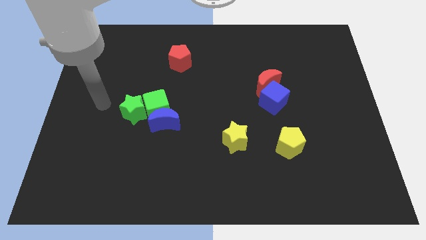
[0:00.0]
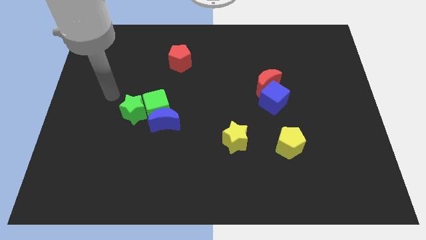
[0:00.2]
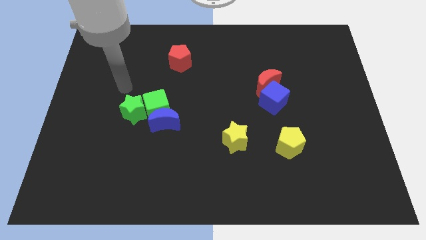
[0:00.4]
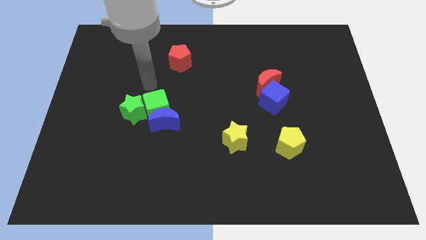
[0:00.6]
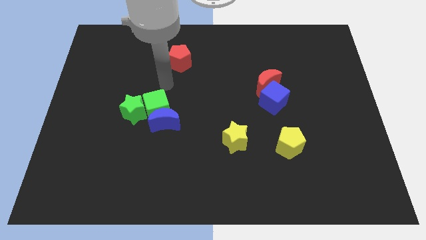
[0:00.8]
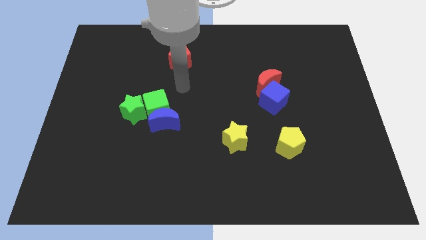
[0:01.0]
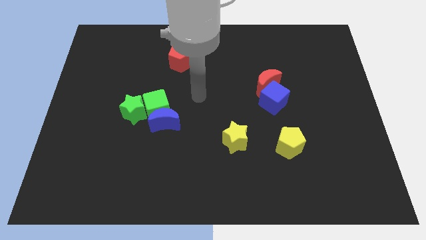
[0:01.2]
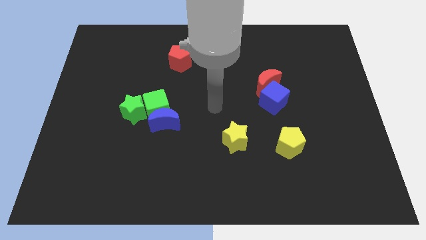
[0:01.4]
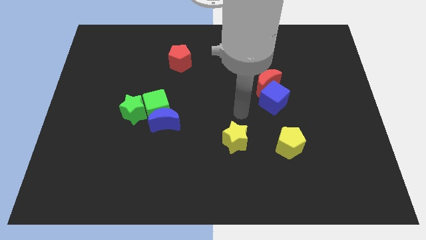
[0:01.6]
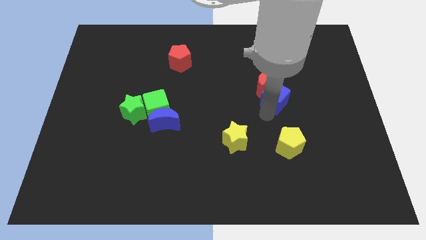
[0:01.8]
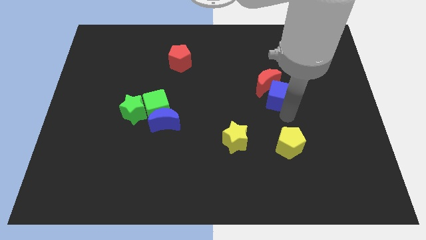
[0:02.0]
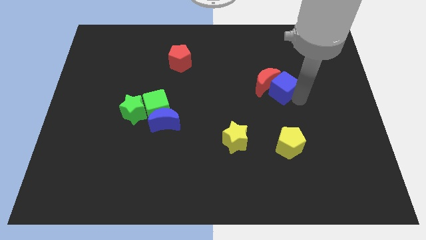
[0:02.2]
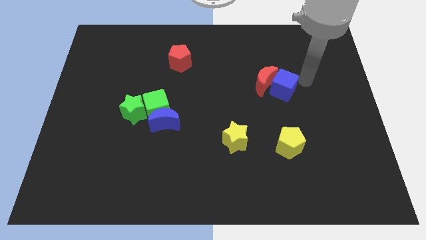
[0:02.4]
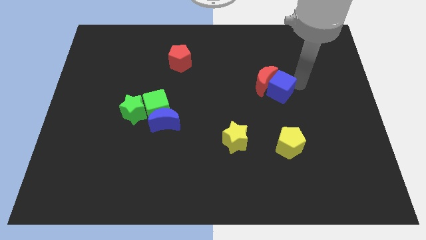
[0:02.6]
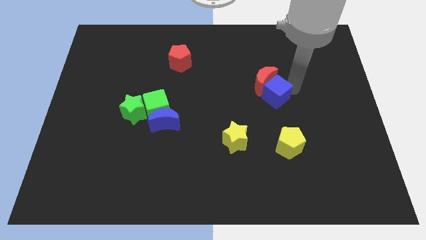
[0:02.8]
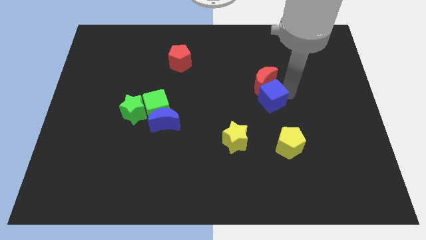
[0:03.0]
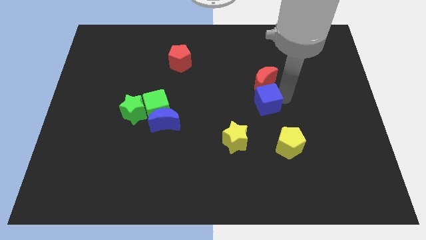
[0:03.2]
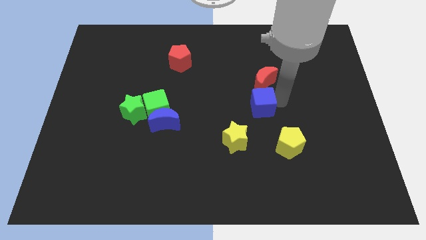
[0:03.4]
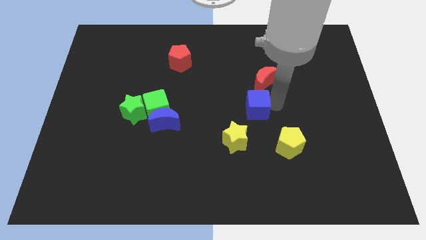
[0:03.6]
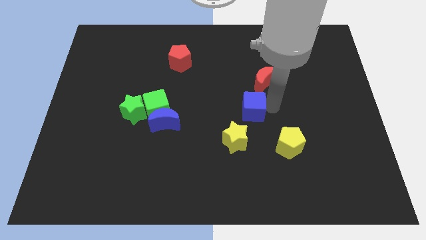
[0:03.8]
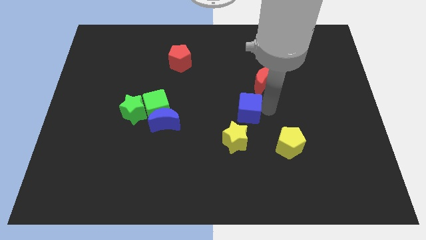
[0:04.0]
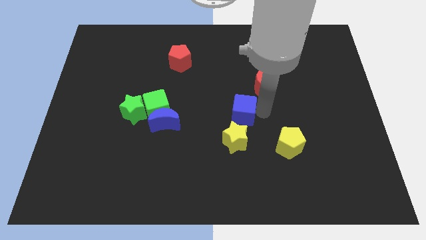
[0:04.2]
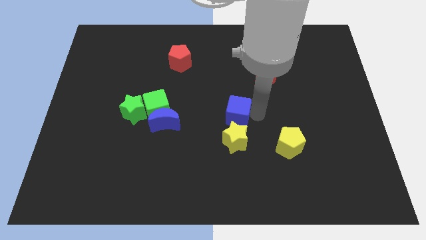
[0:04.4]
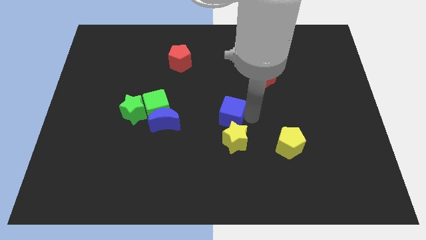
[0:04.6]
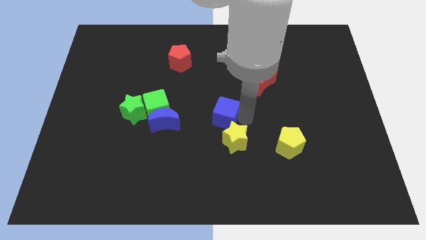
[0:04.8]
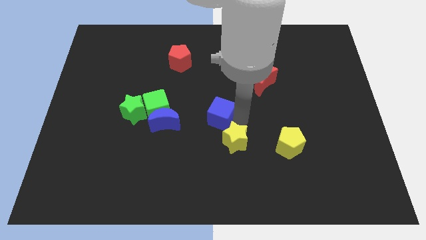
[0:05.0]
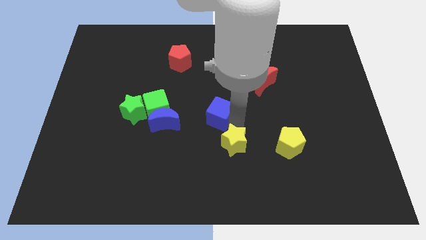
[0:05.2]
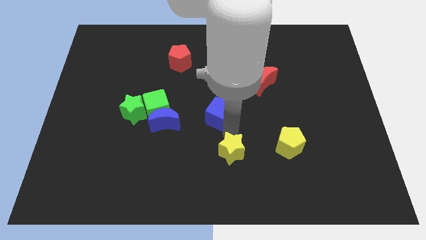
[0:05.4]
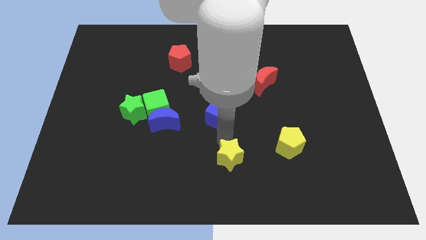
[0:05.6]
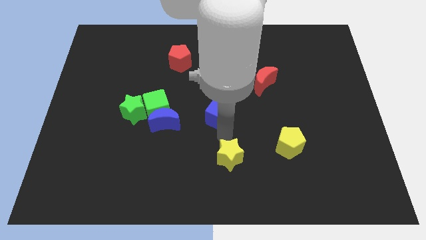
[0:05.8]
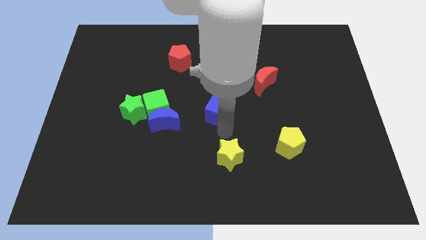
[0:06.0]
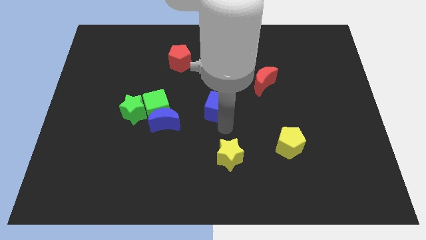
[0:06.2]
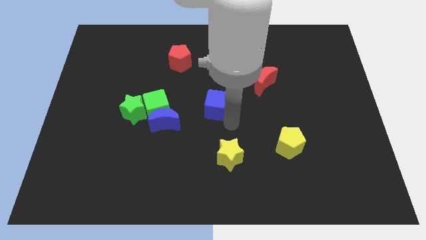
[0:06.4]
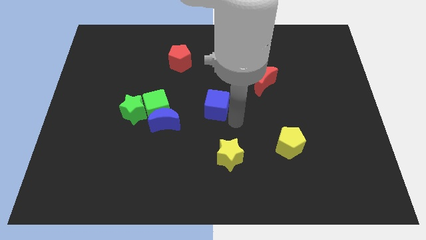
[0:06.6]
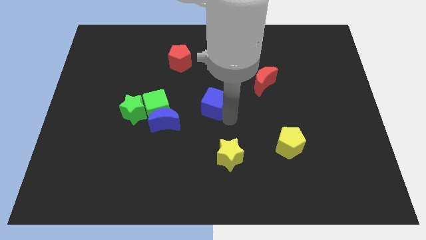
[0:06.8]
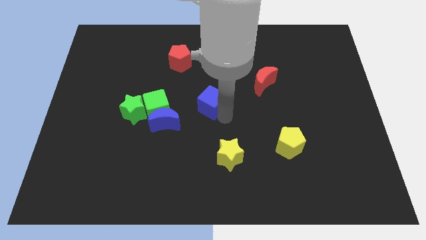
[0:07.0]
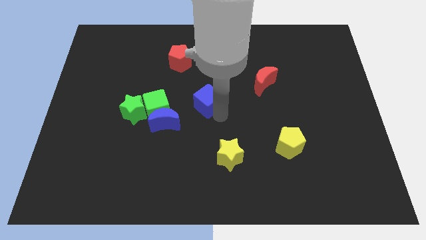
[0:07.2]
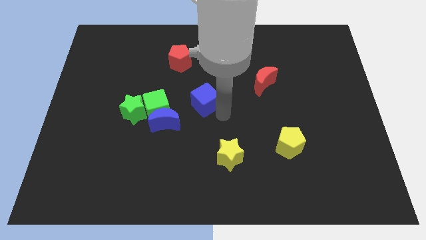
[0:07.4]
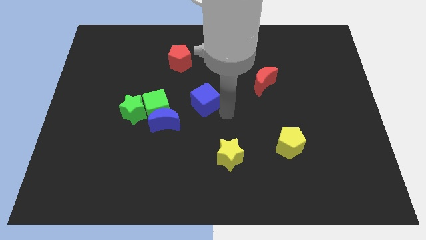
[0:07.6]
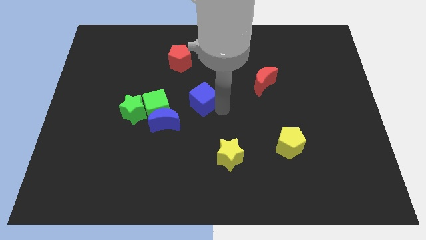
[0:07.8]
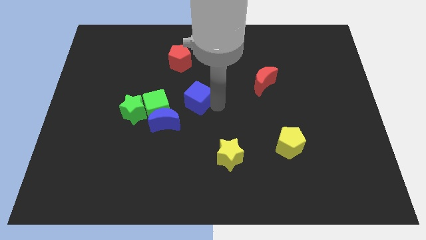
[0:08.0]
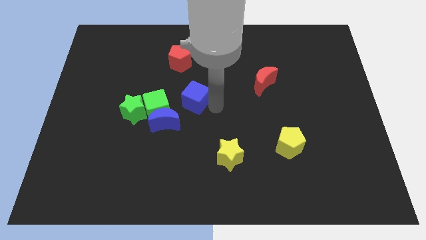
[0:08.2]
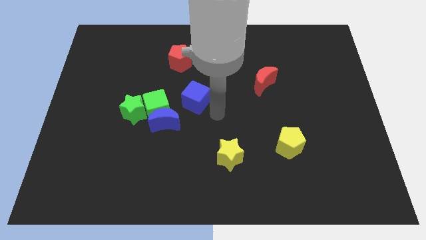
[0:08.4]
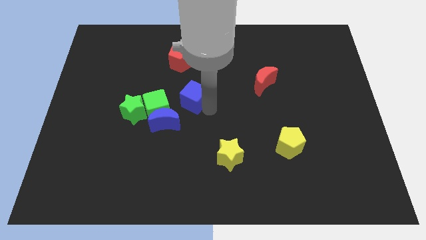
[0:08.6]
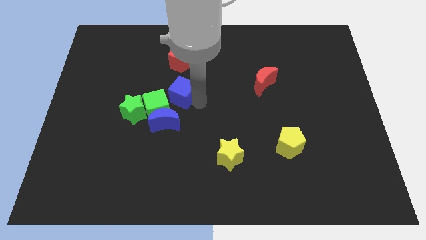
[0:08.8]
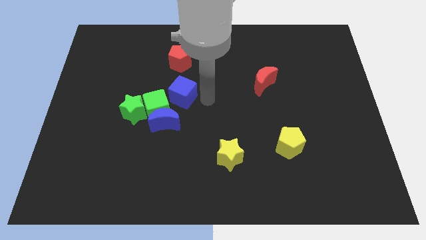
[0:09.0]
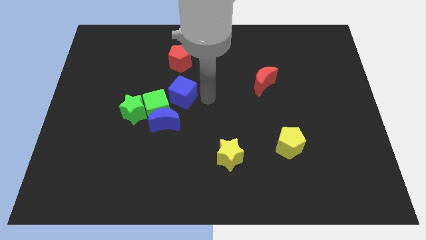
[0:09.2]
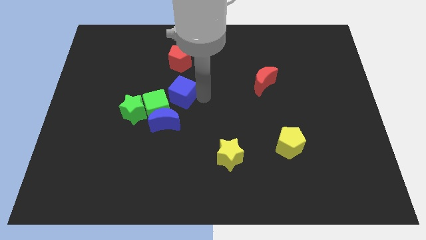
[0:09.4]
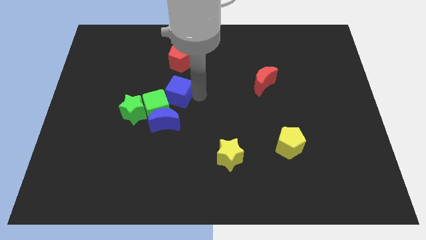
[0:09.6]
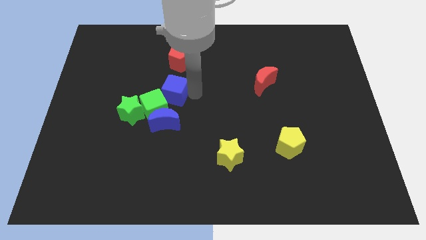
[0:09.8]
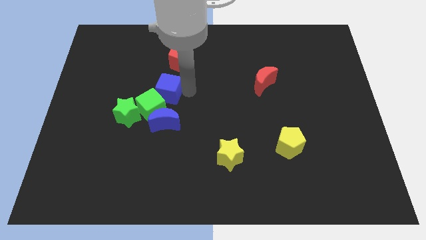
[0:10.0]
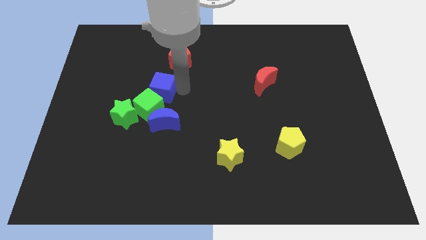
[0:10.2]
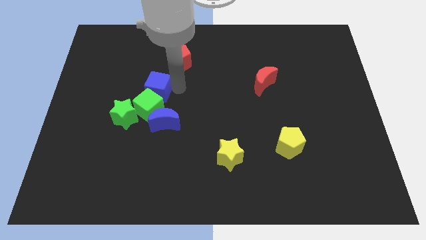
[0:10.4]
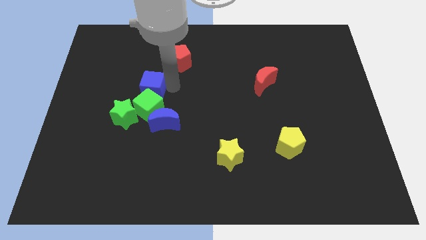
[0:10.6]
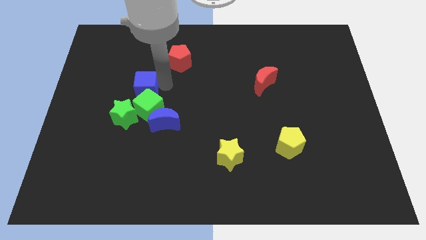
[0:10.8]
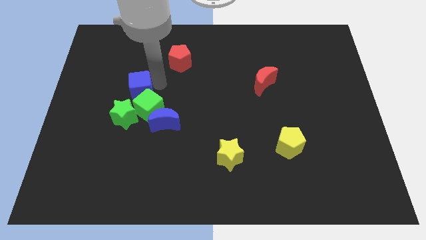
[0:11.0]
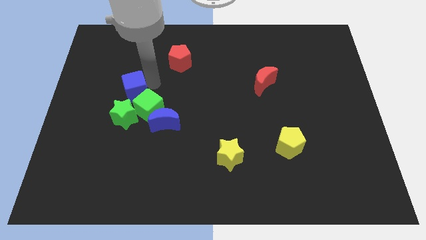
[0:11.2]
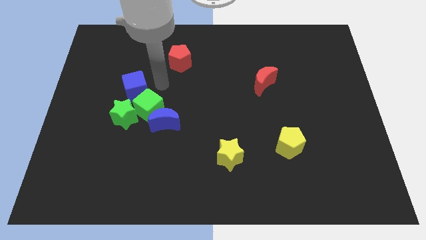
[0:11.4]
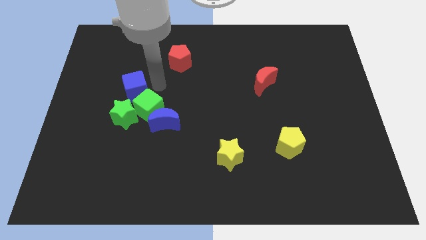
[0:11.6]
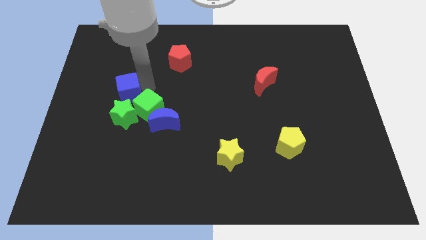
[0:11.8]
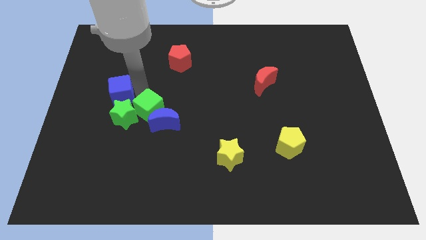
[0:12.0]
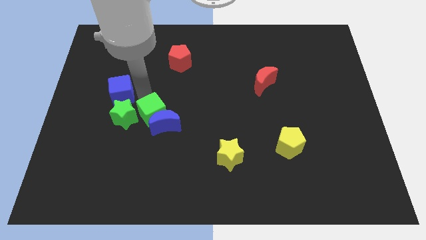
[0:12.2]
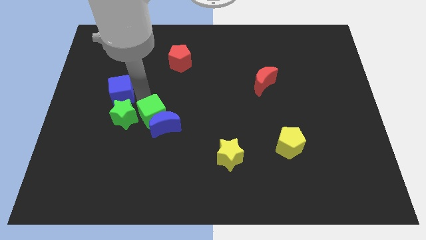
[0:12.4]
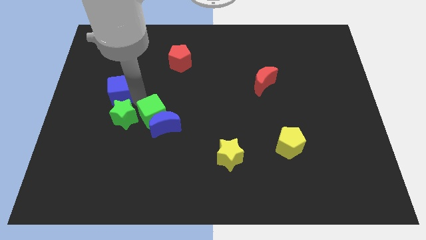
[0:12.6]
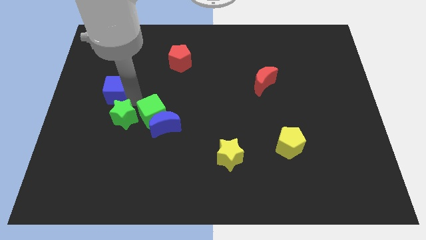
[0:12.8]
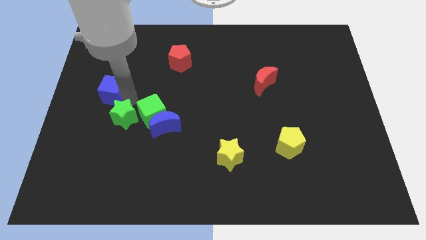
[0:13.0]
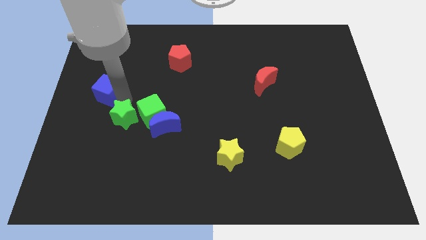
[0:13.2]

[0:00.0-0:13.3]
move the blue cube to the left side of the board

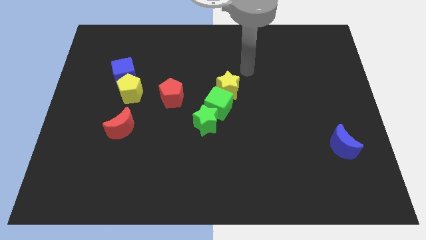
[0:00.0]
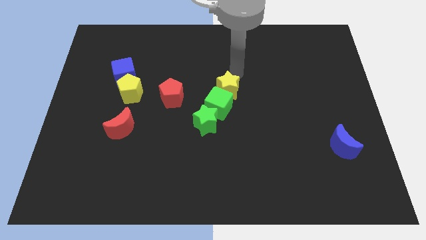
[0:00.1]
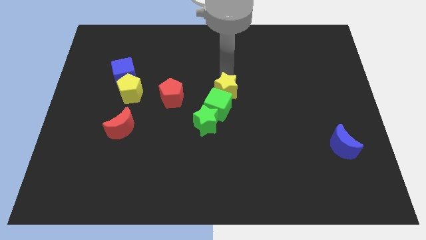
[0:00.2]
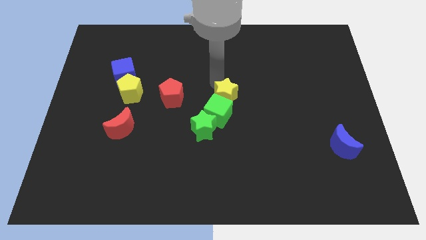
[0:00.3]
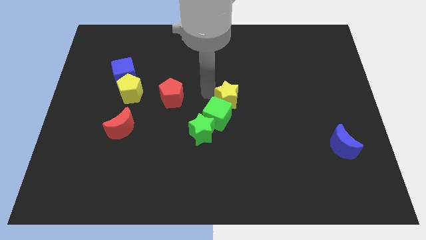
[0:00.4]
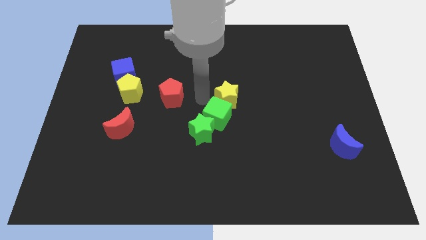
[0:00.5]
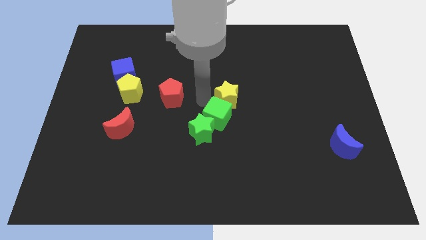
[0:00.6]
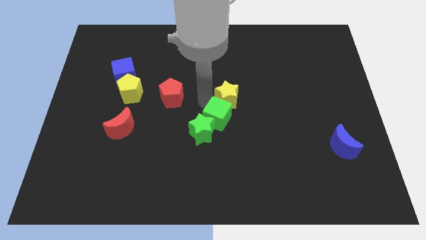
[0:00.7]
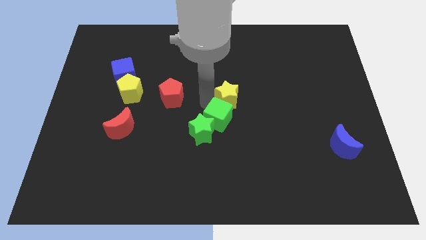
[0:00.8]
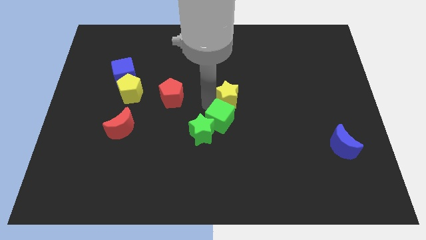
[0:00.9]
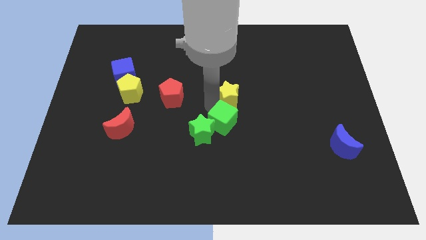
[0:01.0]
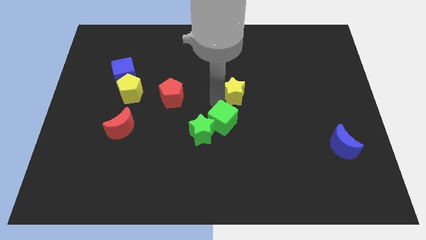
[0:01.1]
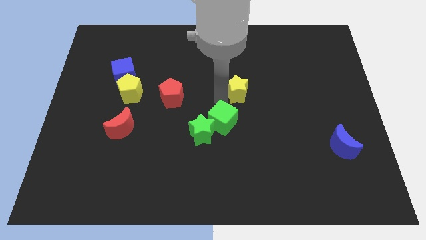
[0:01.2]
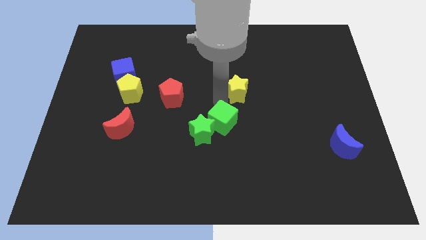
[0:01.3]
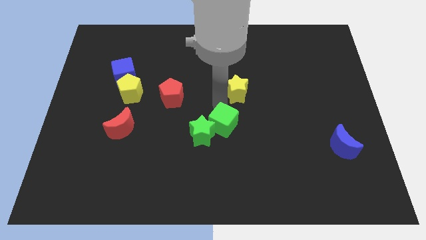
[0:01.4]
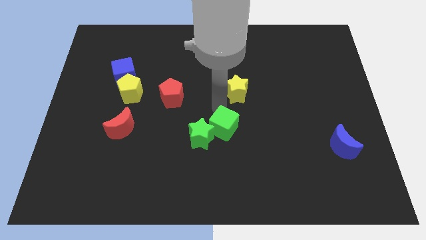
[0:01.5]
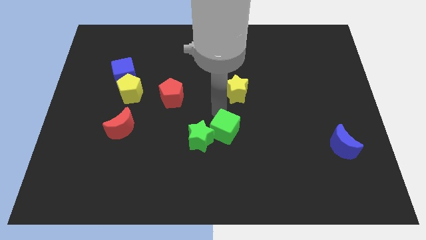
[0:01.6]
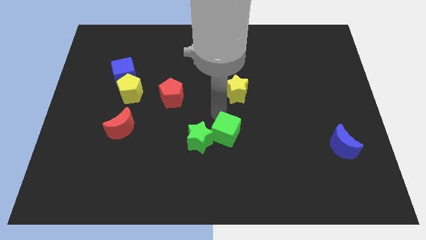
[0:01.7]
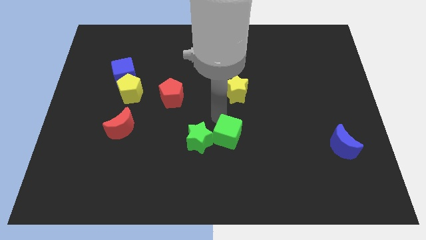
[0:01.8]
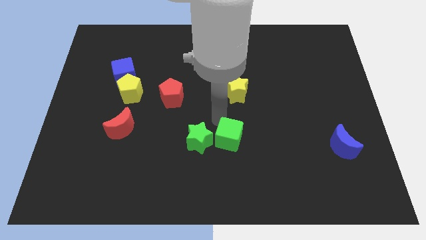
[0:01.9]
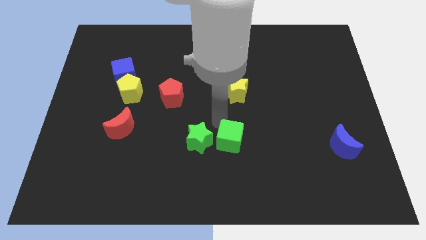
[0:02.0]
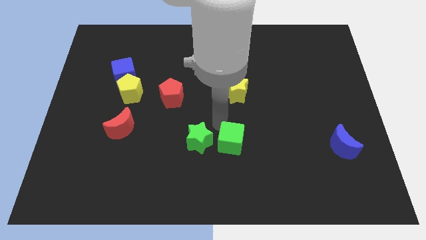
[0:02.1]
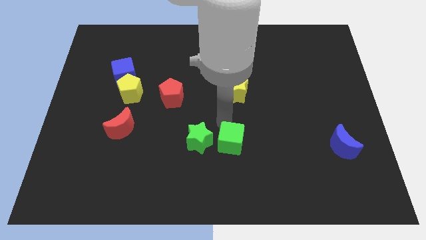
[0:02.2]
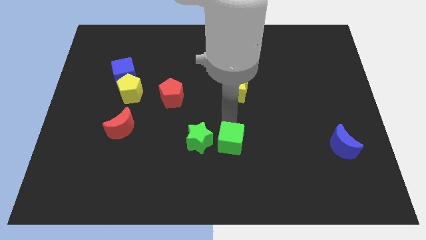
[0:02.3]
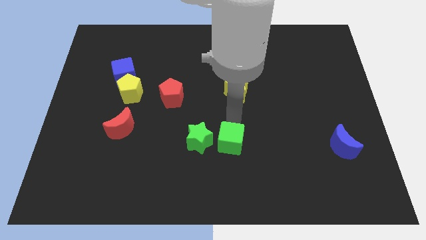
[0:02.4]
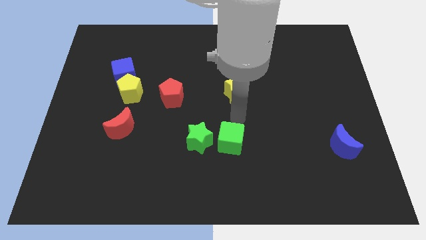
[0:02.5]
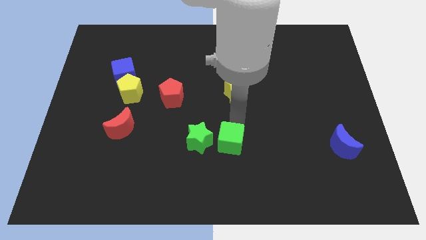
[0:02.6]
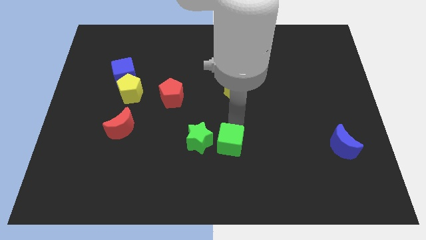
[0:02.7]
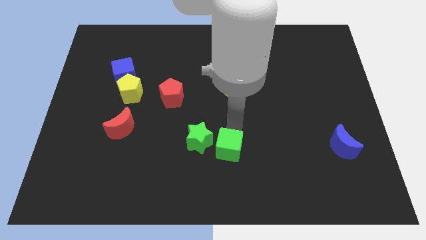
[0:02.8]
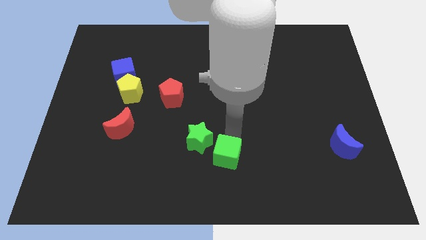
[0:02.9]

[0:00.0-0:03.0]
slide the green cube to the bottom
